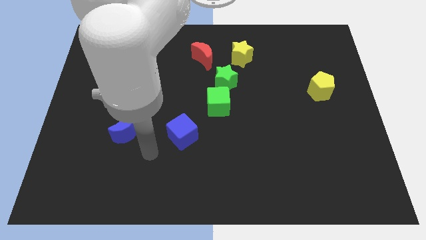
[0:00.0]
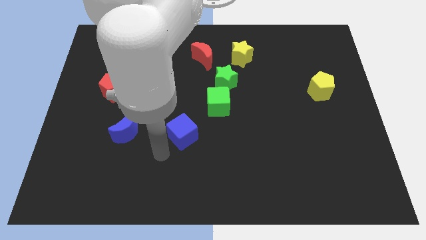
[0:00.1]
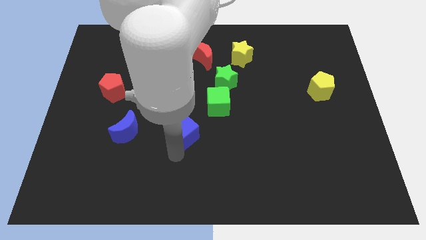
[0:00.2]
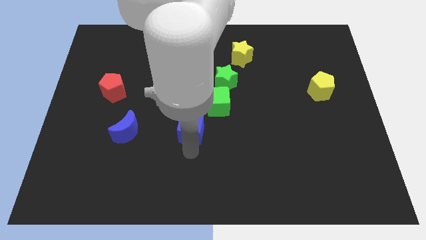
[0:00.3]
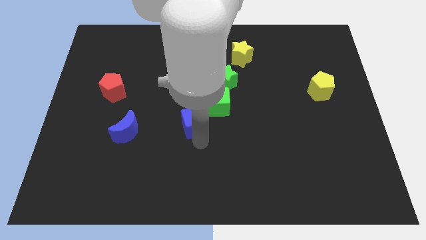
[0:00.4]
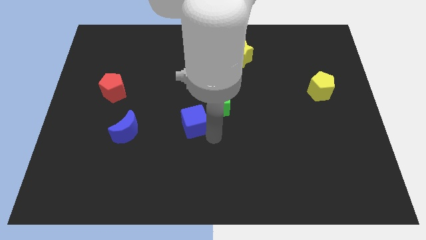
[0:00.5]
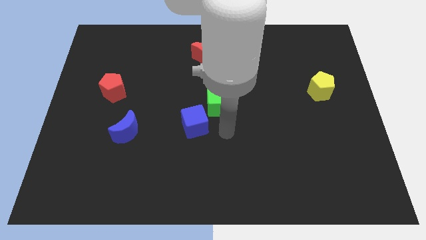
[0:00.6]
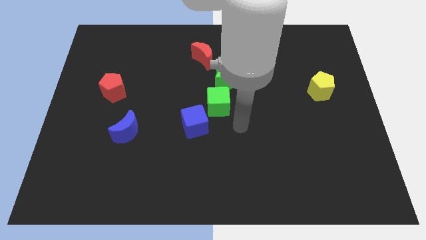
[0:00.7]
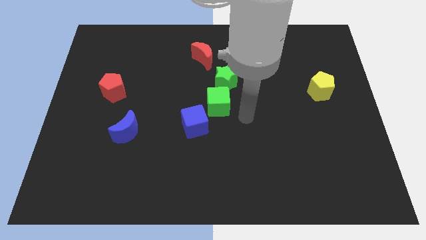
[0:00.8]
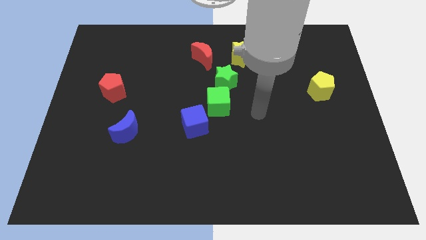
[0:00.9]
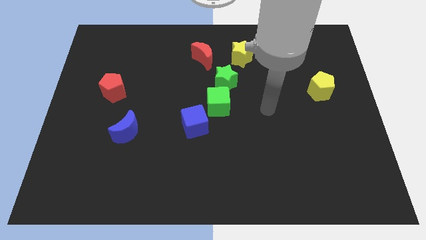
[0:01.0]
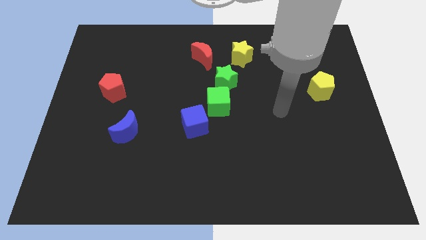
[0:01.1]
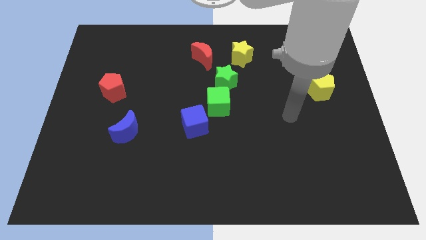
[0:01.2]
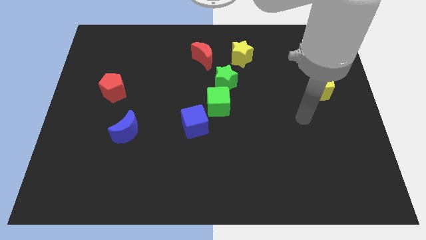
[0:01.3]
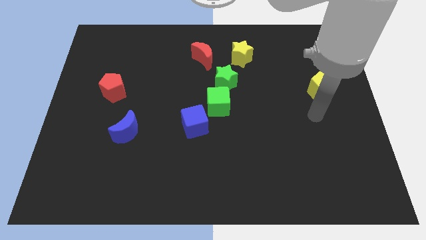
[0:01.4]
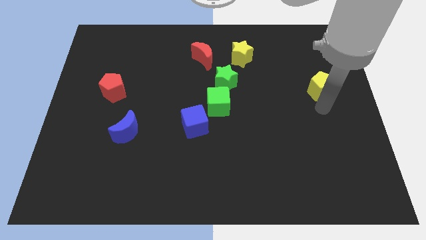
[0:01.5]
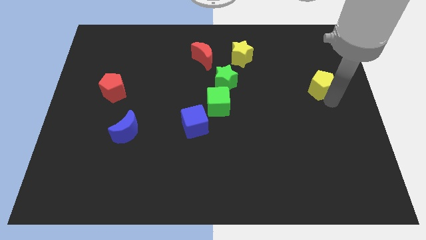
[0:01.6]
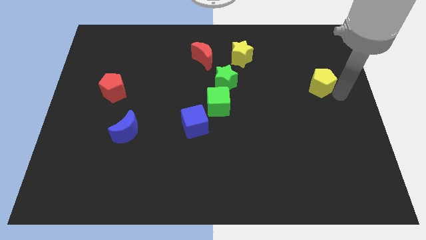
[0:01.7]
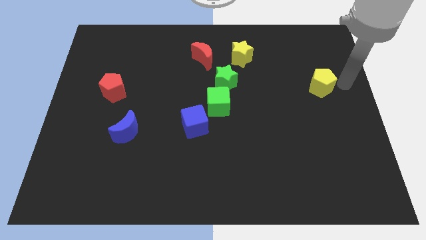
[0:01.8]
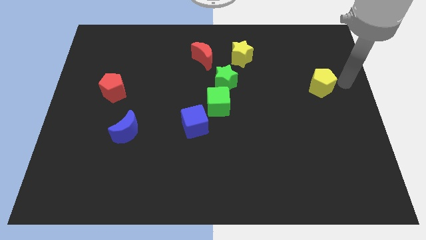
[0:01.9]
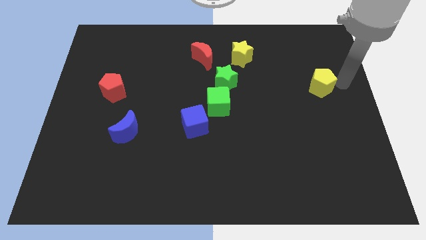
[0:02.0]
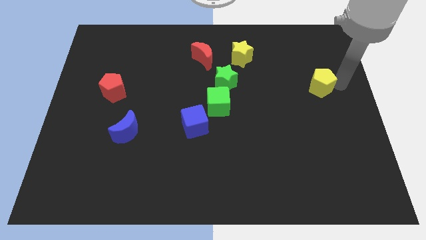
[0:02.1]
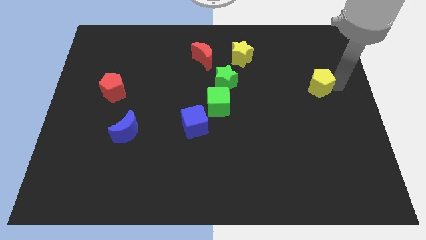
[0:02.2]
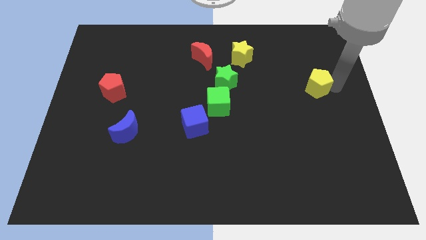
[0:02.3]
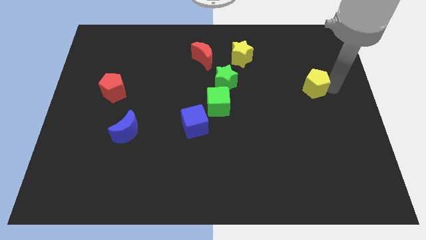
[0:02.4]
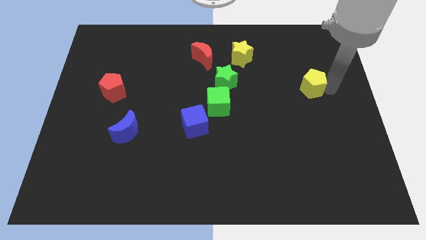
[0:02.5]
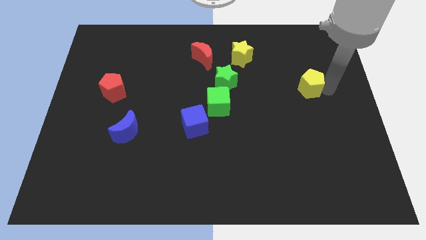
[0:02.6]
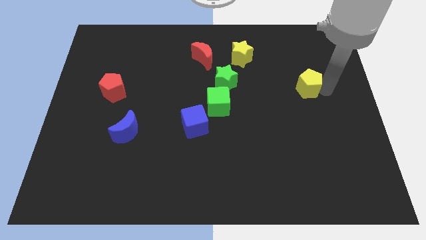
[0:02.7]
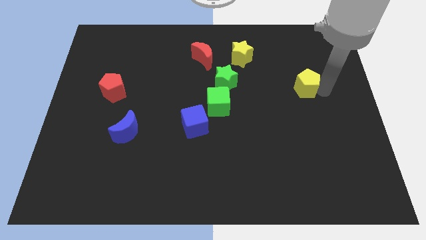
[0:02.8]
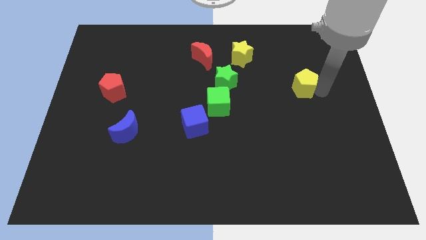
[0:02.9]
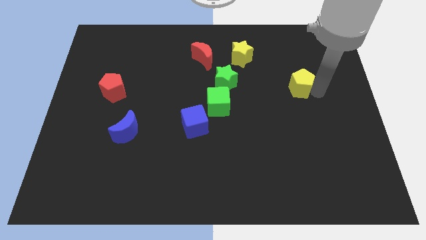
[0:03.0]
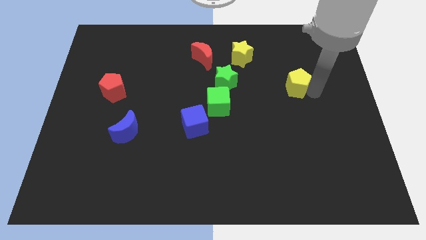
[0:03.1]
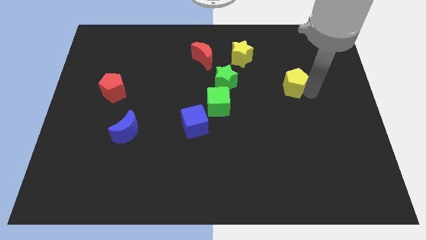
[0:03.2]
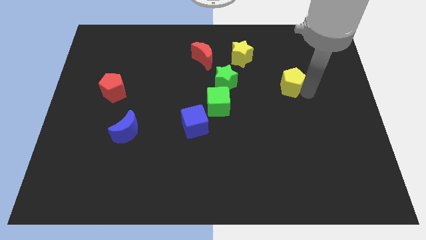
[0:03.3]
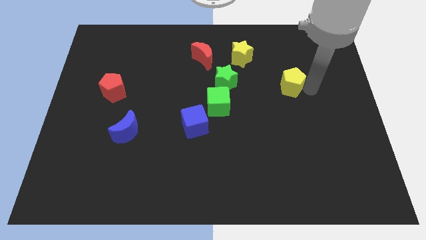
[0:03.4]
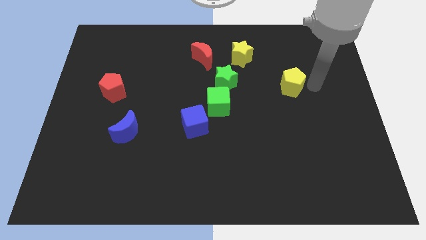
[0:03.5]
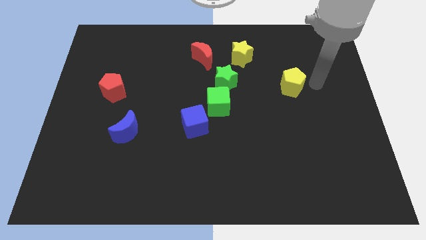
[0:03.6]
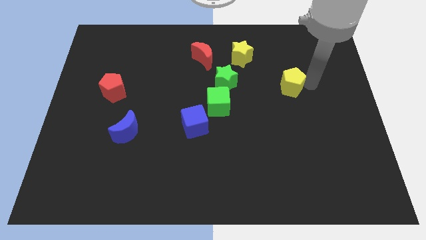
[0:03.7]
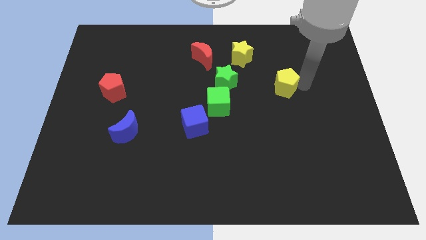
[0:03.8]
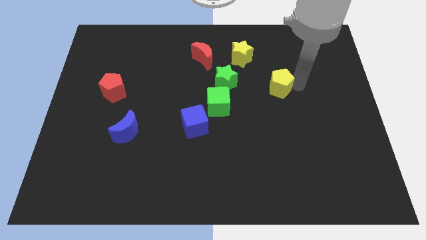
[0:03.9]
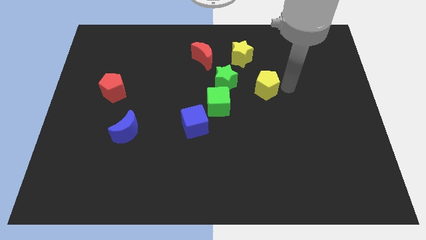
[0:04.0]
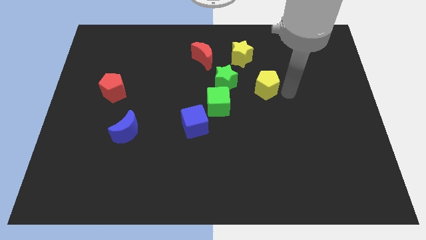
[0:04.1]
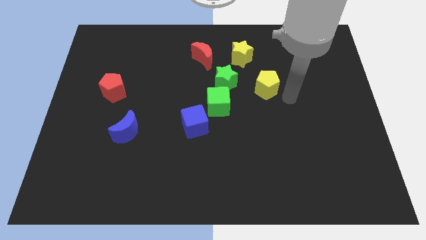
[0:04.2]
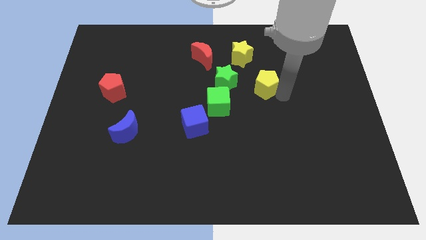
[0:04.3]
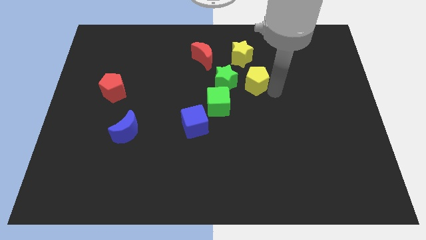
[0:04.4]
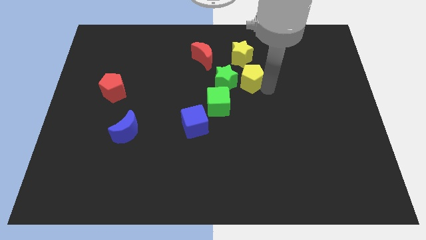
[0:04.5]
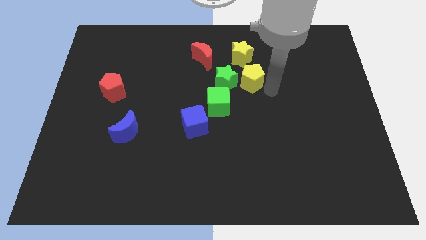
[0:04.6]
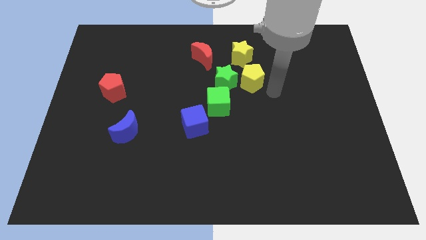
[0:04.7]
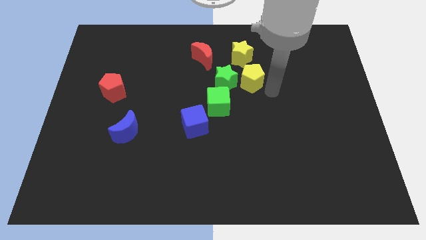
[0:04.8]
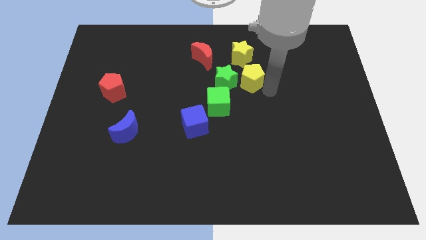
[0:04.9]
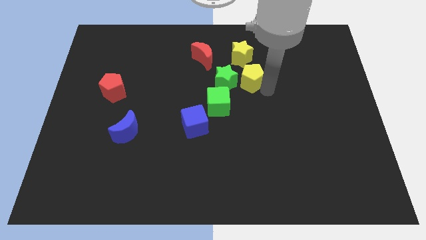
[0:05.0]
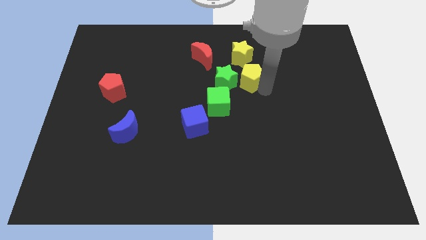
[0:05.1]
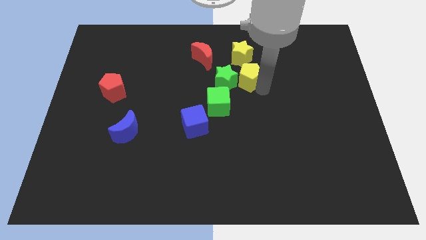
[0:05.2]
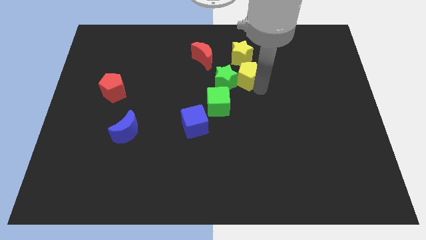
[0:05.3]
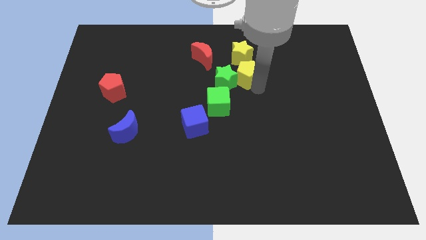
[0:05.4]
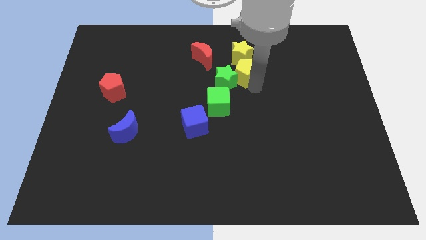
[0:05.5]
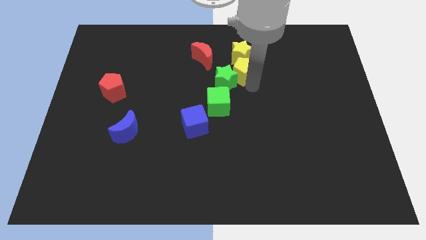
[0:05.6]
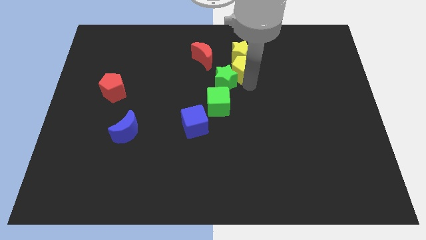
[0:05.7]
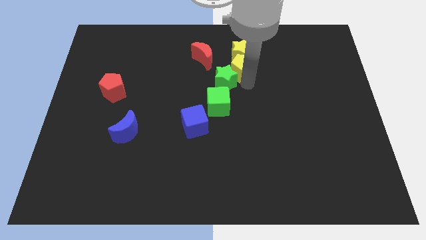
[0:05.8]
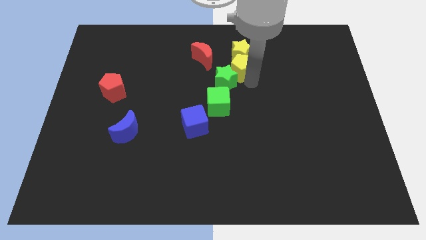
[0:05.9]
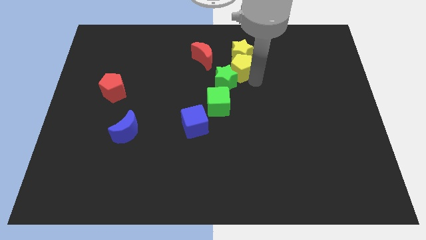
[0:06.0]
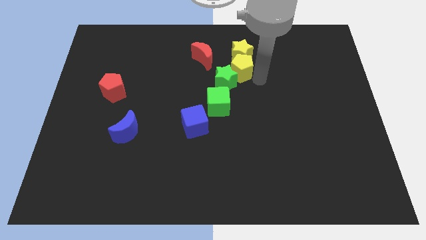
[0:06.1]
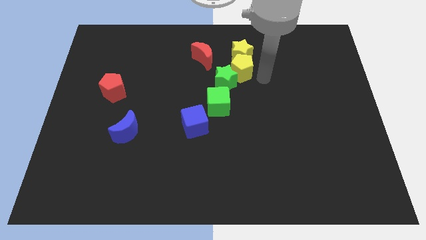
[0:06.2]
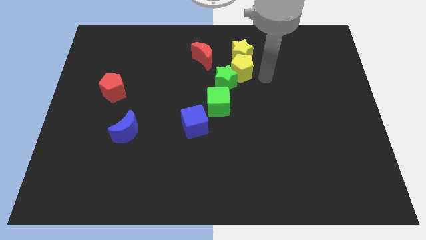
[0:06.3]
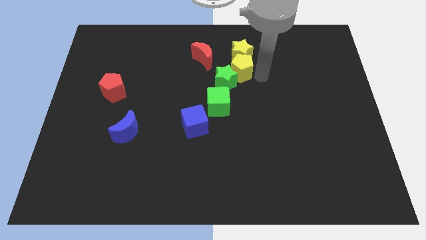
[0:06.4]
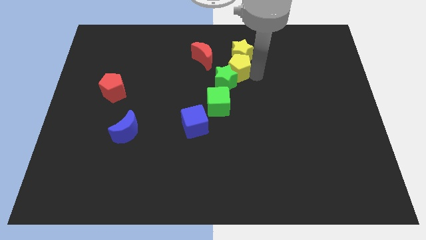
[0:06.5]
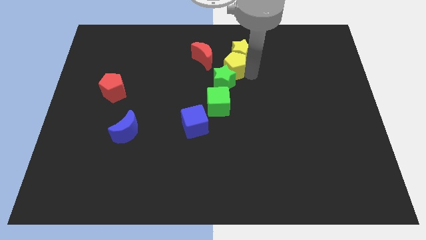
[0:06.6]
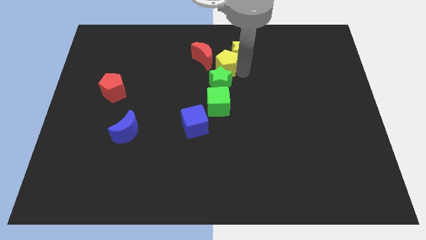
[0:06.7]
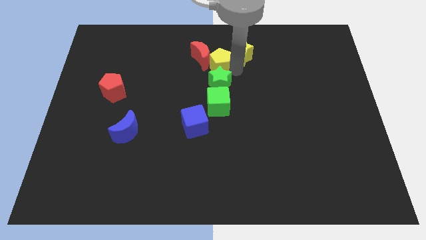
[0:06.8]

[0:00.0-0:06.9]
push the yellow pentagon next to the red moon

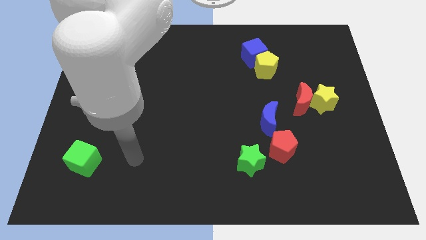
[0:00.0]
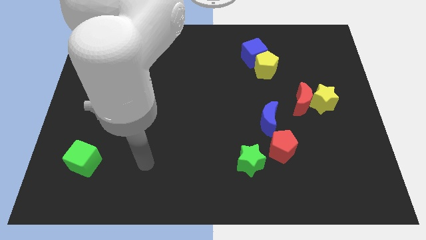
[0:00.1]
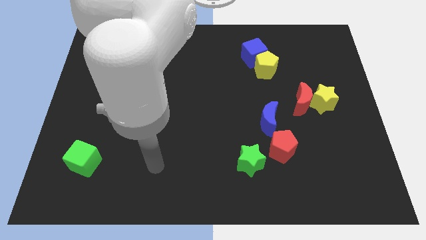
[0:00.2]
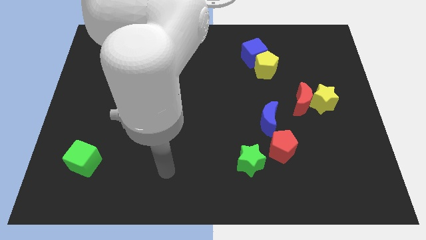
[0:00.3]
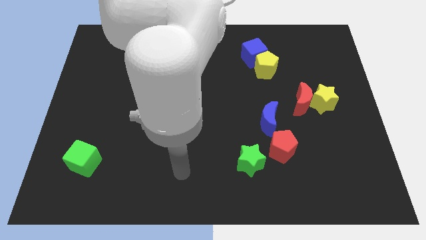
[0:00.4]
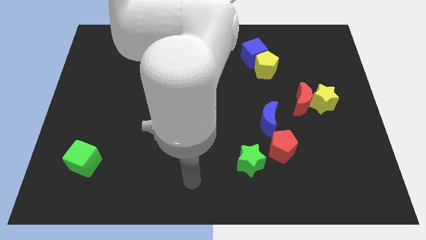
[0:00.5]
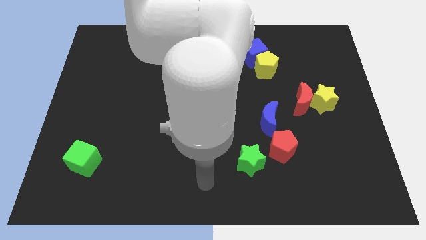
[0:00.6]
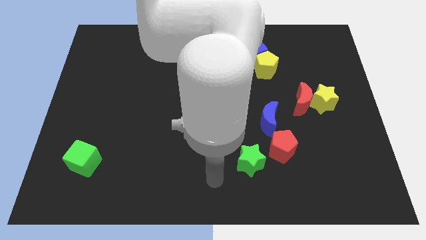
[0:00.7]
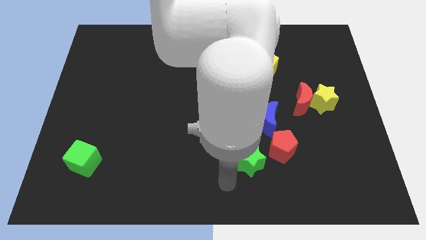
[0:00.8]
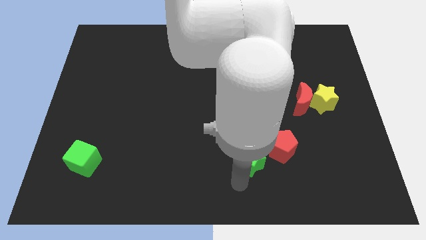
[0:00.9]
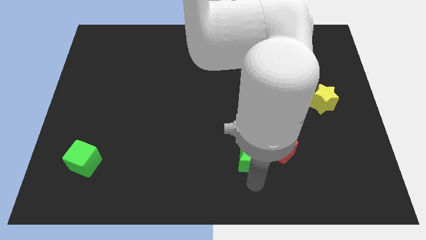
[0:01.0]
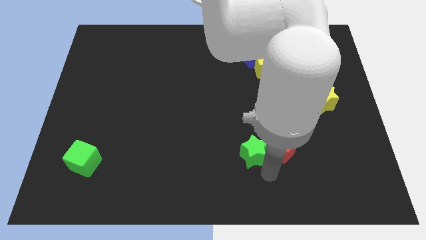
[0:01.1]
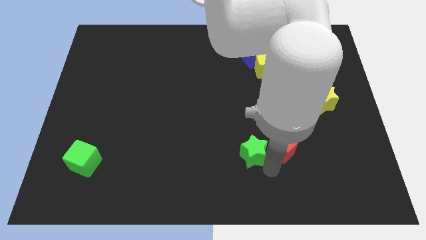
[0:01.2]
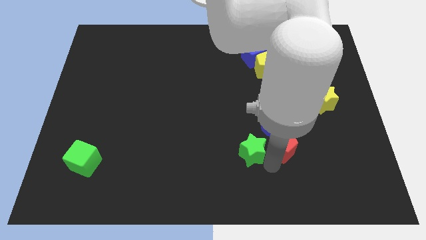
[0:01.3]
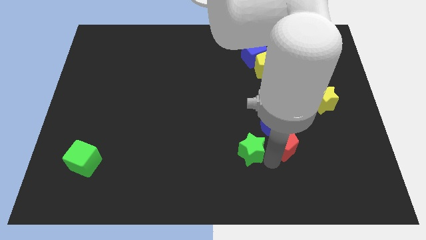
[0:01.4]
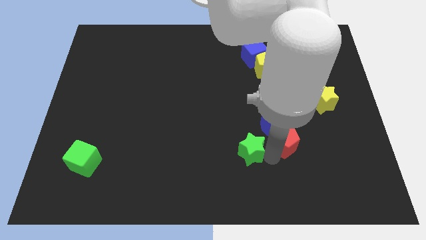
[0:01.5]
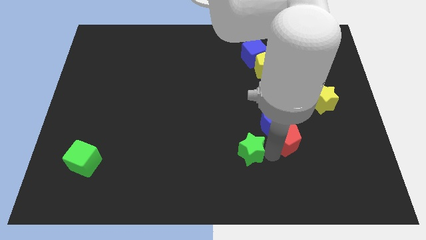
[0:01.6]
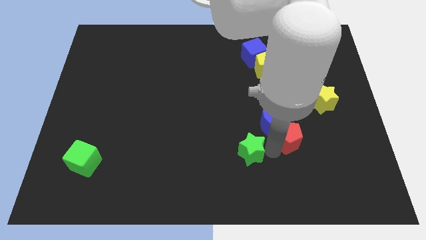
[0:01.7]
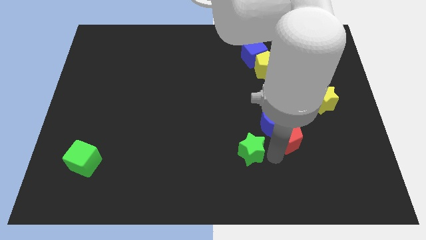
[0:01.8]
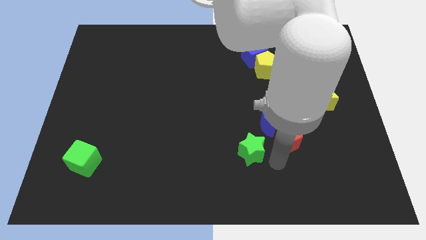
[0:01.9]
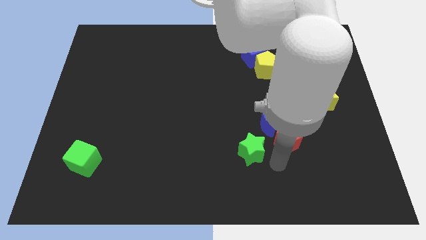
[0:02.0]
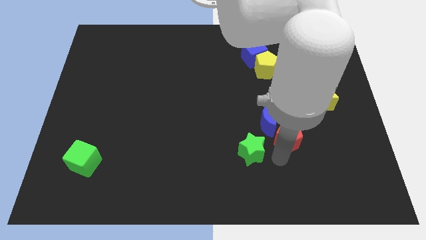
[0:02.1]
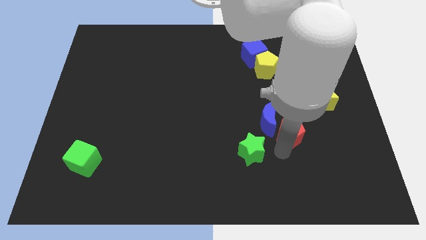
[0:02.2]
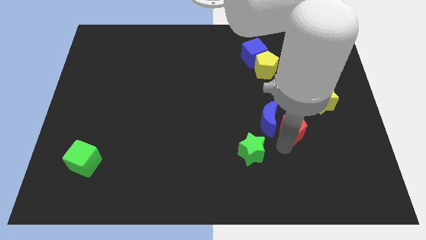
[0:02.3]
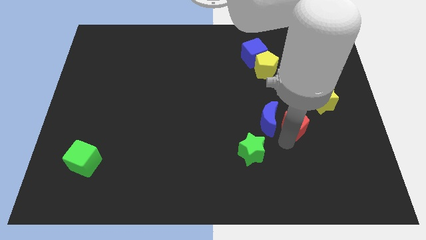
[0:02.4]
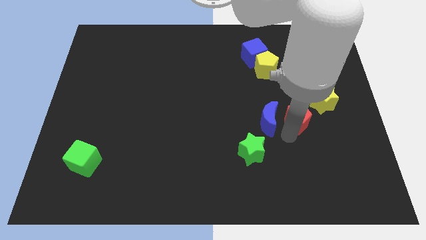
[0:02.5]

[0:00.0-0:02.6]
put the red pentagon next to the red moon
